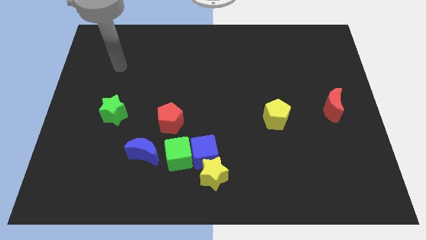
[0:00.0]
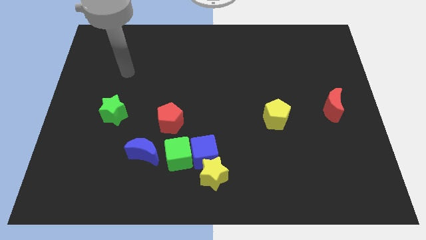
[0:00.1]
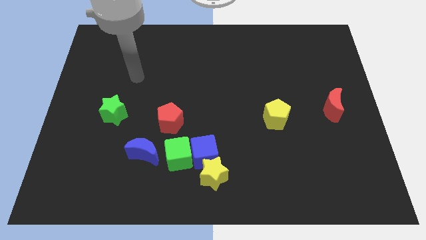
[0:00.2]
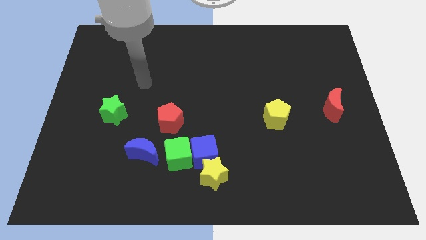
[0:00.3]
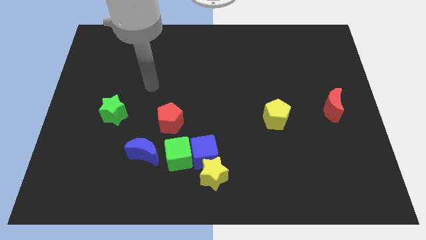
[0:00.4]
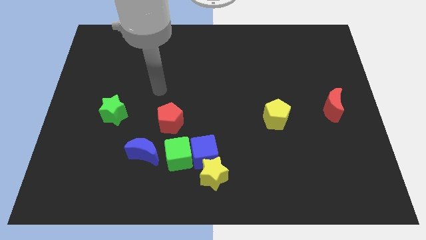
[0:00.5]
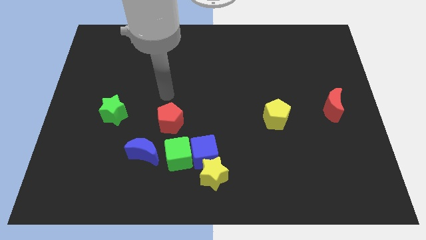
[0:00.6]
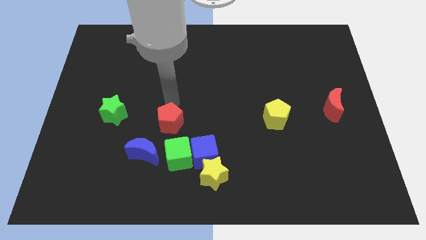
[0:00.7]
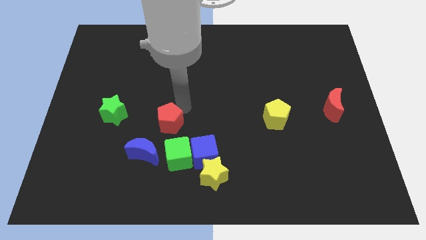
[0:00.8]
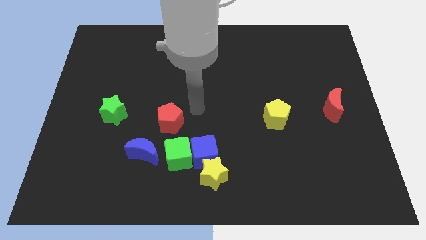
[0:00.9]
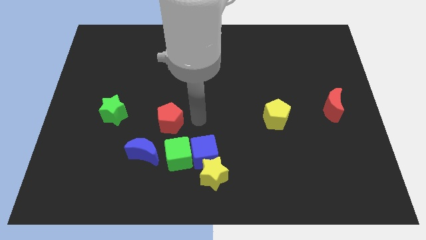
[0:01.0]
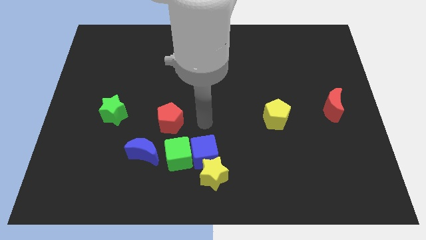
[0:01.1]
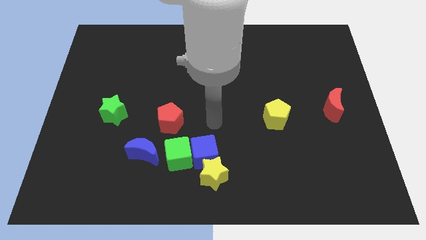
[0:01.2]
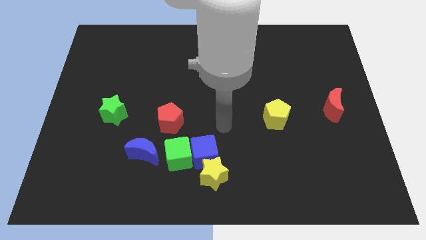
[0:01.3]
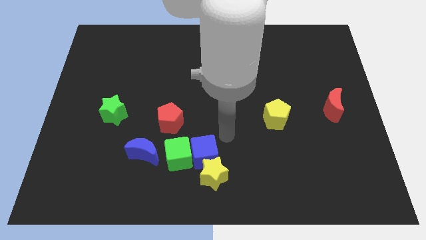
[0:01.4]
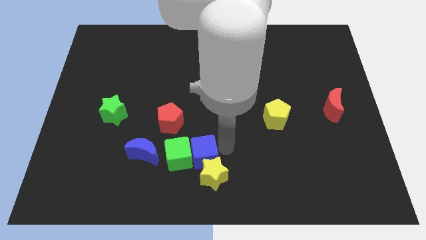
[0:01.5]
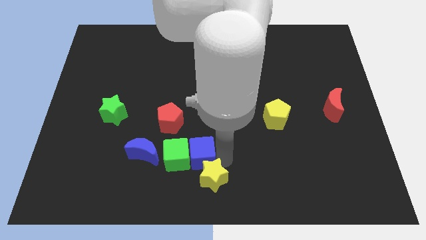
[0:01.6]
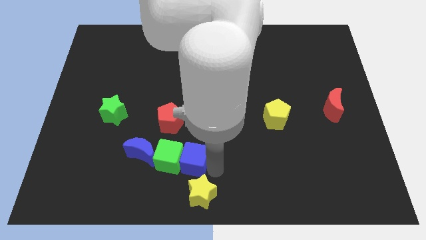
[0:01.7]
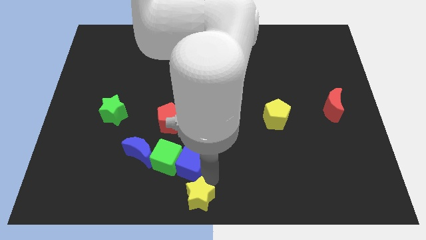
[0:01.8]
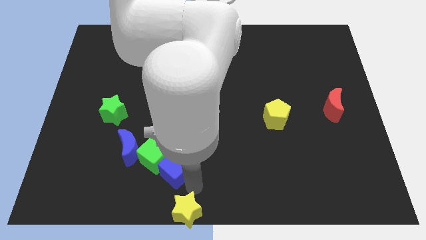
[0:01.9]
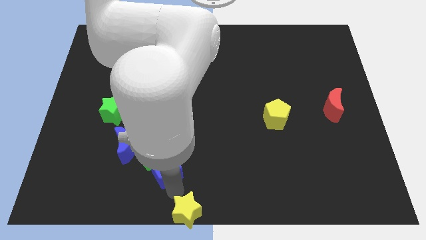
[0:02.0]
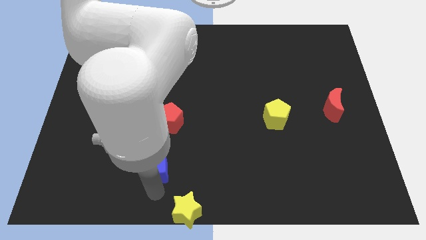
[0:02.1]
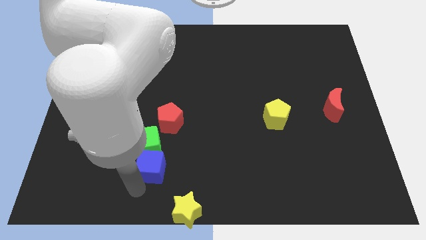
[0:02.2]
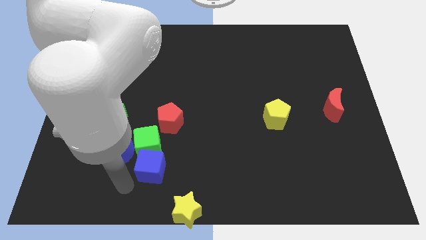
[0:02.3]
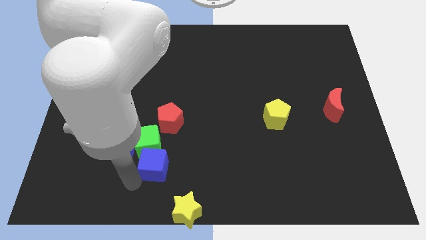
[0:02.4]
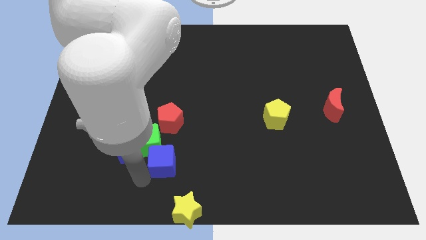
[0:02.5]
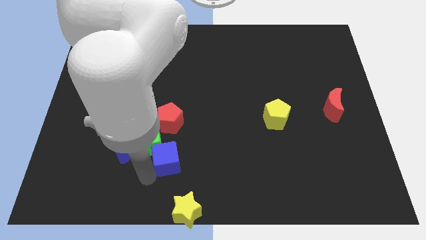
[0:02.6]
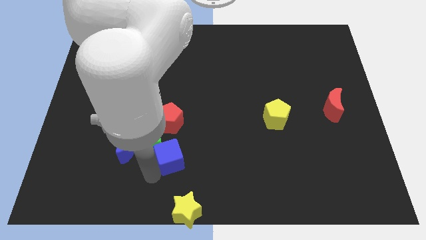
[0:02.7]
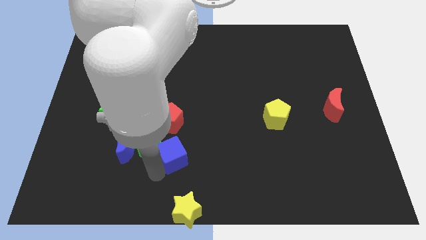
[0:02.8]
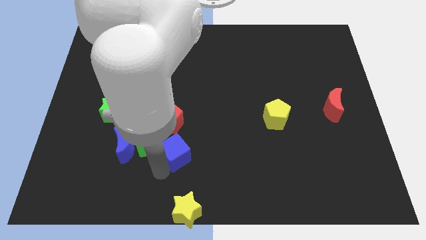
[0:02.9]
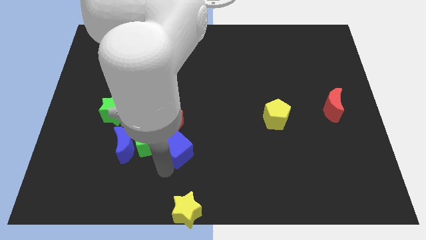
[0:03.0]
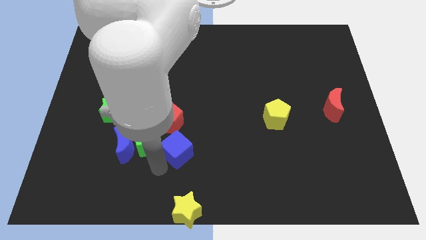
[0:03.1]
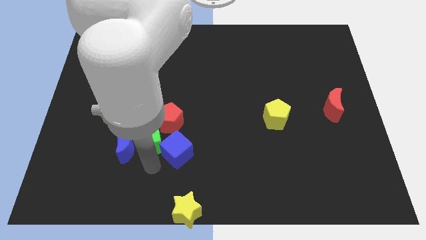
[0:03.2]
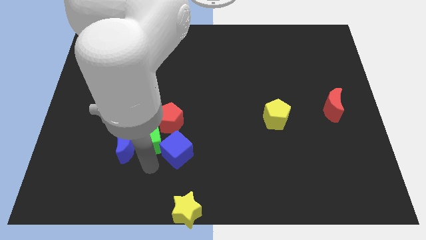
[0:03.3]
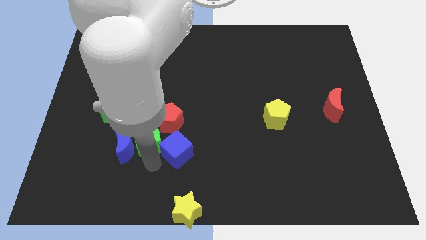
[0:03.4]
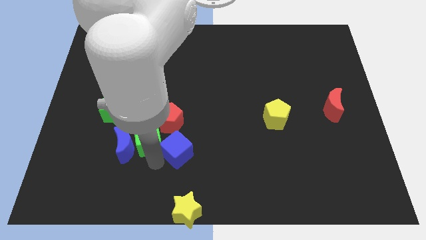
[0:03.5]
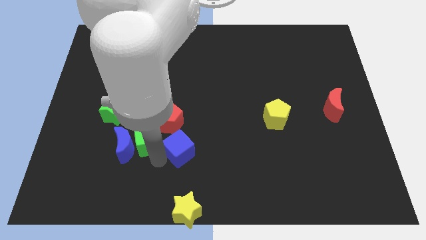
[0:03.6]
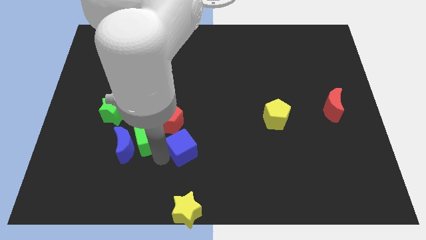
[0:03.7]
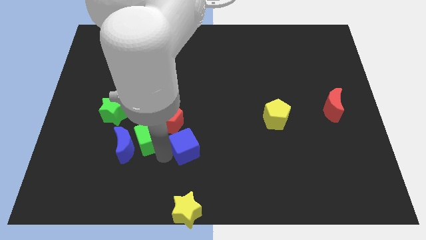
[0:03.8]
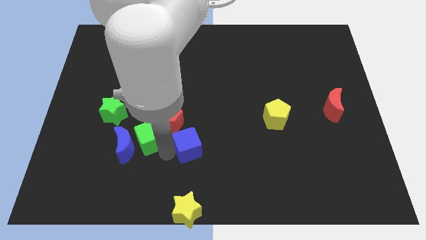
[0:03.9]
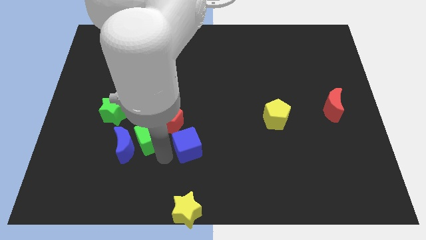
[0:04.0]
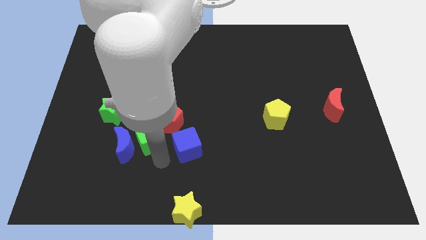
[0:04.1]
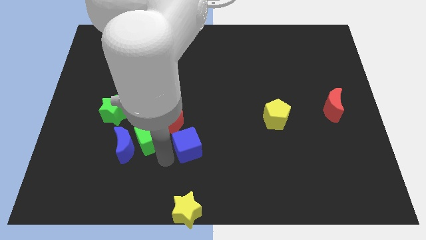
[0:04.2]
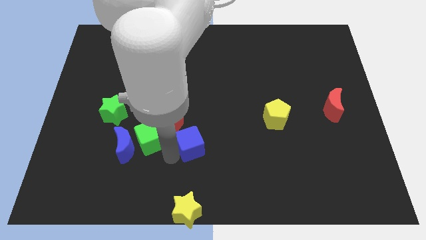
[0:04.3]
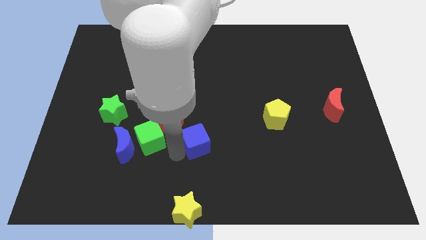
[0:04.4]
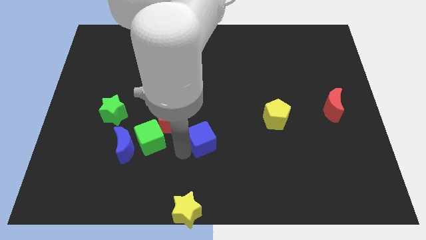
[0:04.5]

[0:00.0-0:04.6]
pull the blue cube apart from the green cube and yellow star

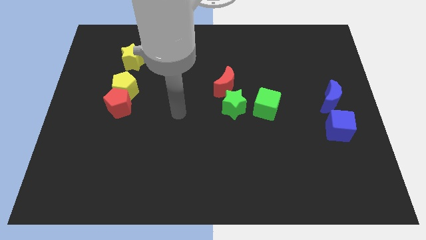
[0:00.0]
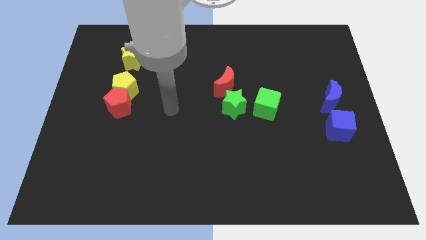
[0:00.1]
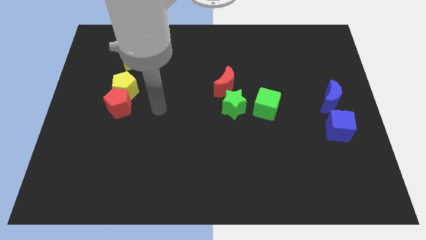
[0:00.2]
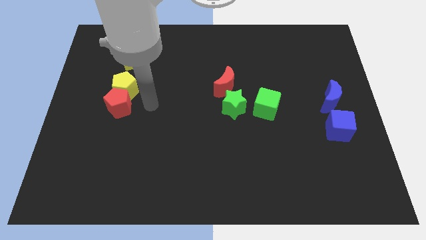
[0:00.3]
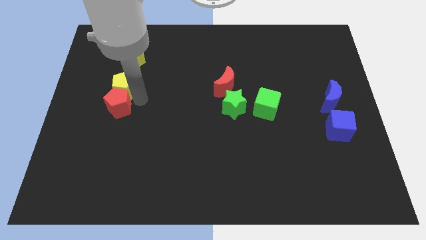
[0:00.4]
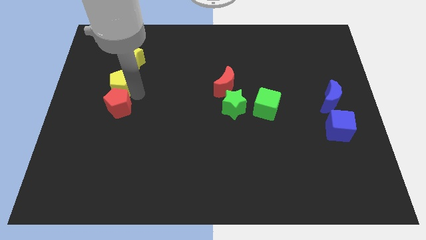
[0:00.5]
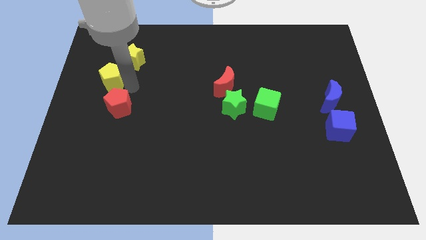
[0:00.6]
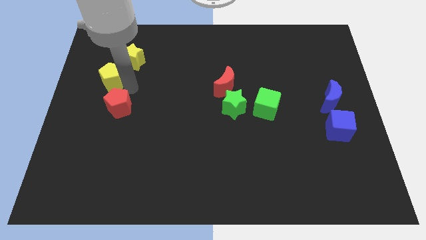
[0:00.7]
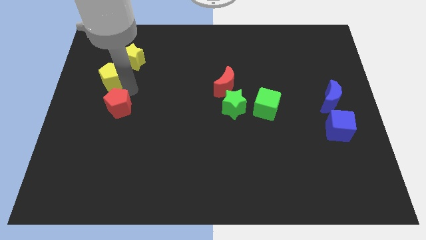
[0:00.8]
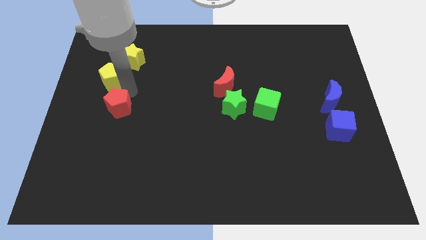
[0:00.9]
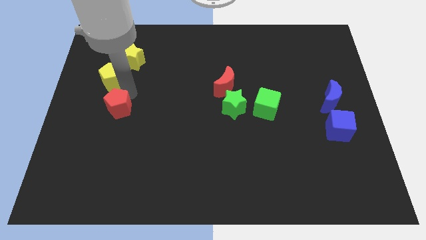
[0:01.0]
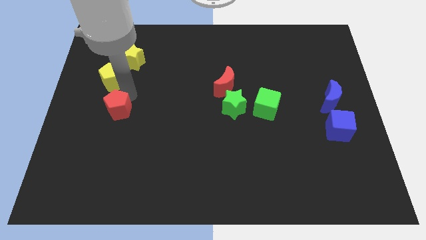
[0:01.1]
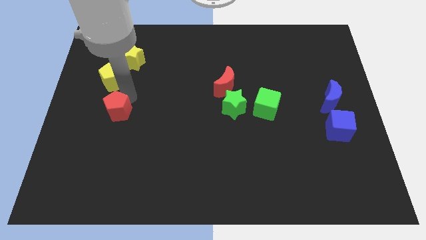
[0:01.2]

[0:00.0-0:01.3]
move the red pentagon away from the yellow pentagon

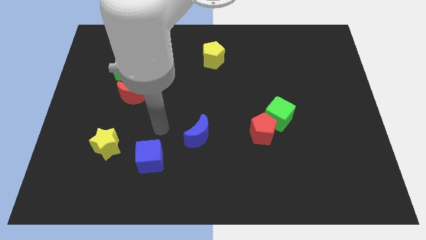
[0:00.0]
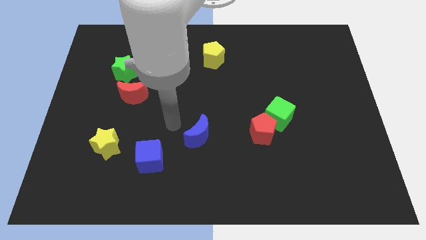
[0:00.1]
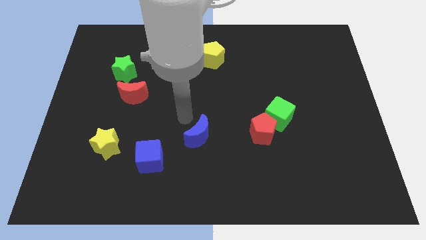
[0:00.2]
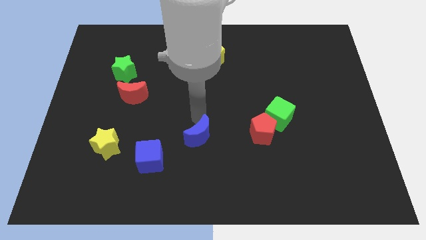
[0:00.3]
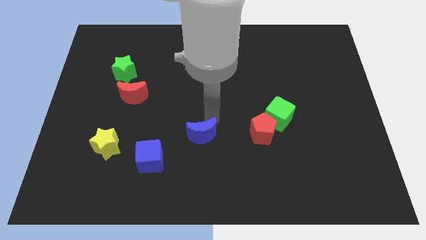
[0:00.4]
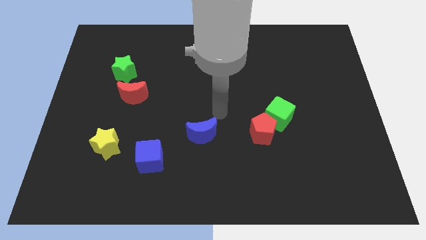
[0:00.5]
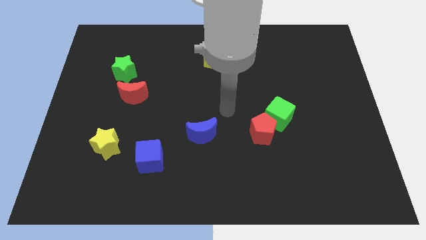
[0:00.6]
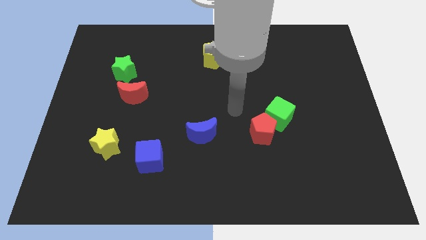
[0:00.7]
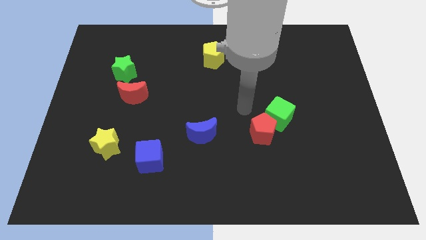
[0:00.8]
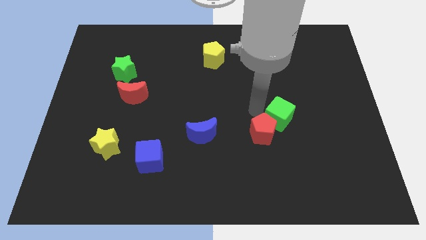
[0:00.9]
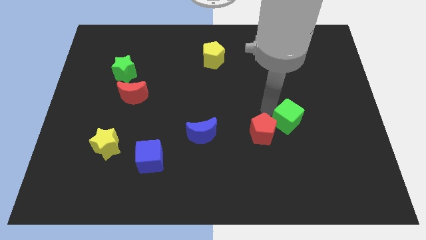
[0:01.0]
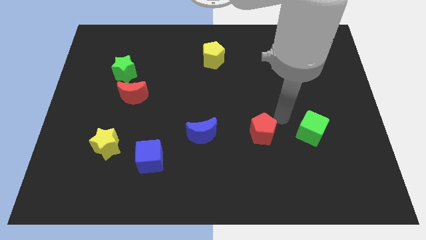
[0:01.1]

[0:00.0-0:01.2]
pull the red pentagon apart from the green cube

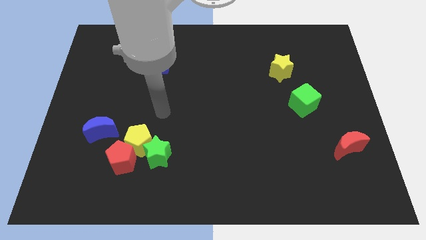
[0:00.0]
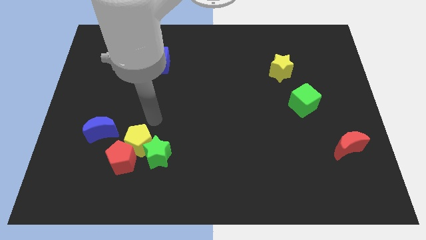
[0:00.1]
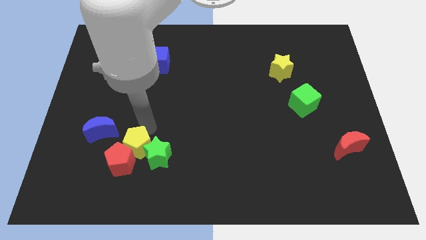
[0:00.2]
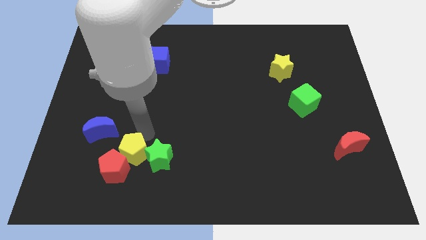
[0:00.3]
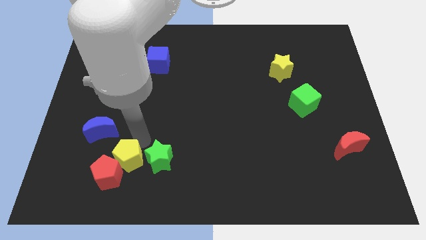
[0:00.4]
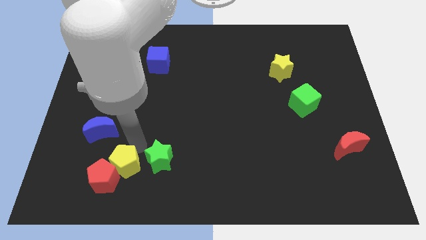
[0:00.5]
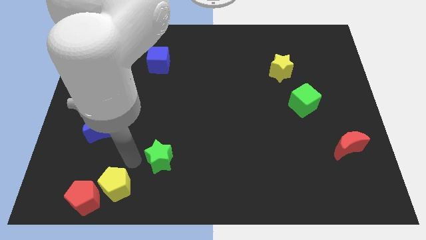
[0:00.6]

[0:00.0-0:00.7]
separate the green star from the yellow pentagon and red pentagon

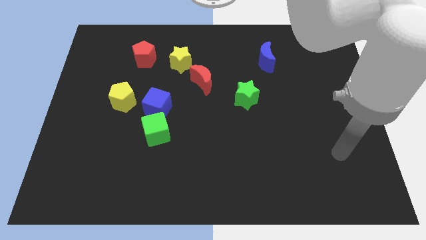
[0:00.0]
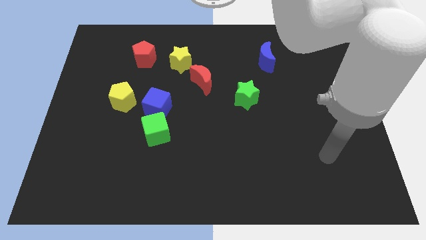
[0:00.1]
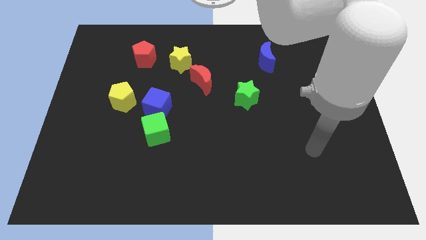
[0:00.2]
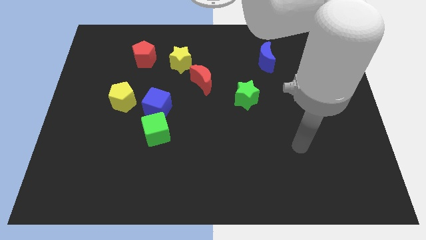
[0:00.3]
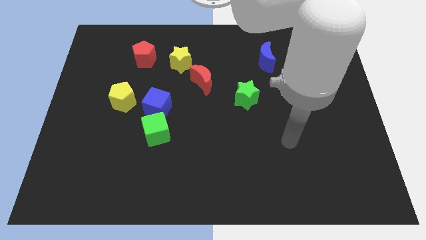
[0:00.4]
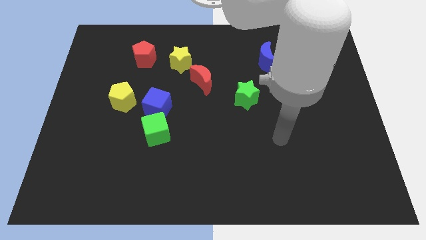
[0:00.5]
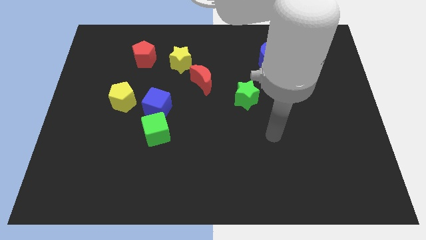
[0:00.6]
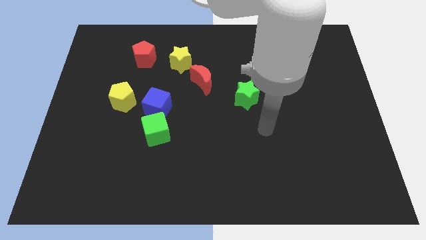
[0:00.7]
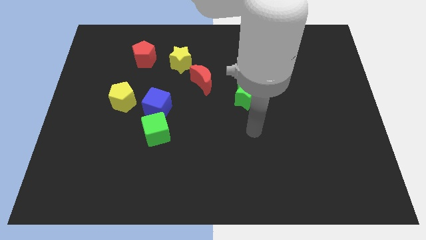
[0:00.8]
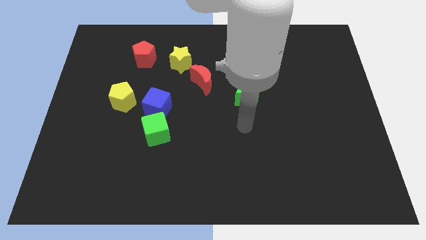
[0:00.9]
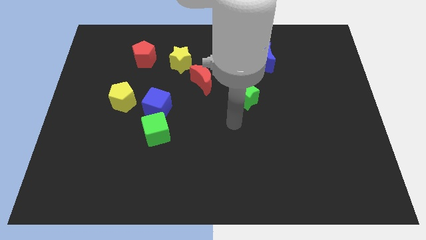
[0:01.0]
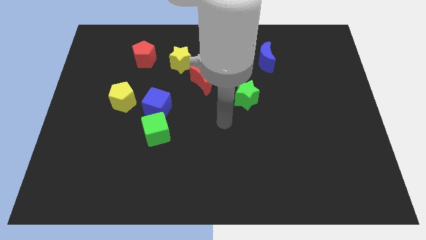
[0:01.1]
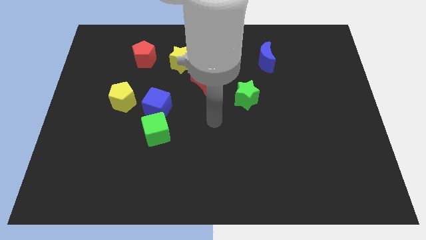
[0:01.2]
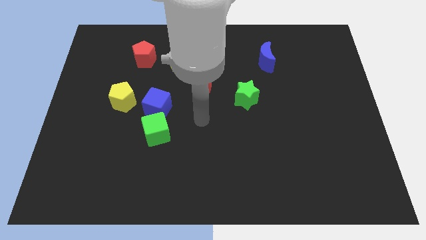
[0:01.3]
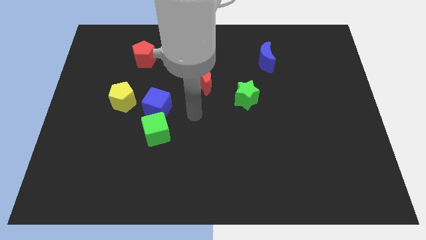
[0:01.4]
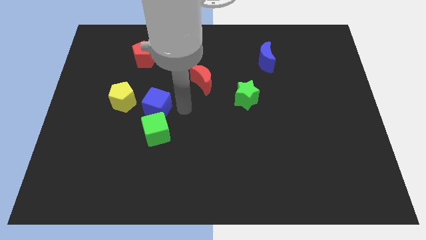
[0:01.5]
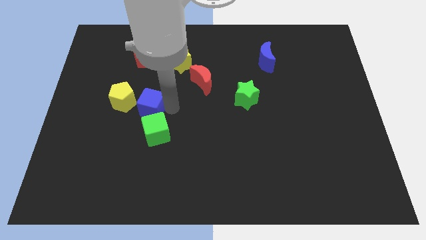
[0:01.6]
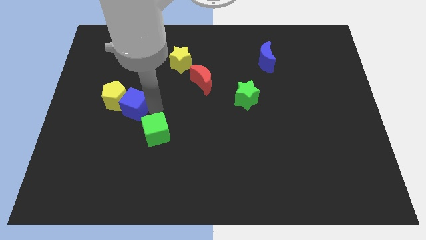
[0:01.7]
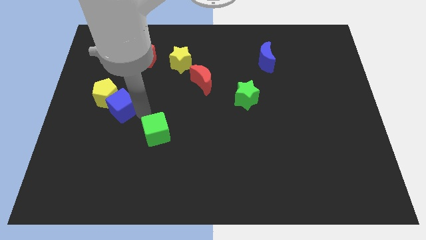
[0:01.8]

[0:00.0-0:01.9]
separate the green cube from the blue cube
